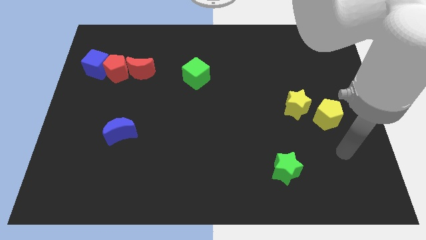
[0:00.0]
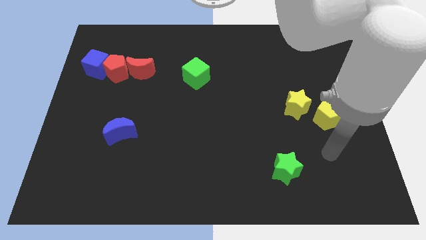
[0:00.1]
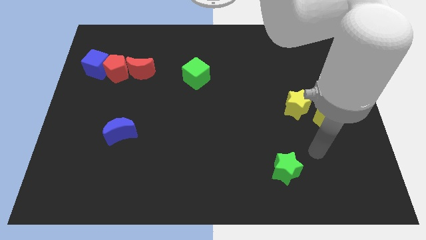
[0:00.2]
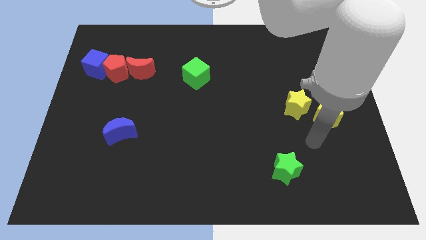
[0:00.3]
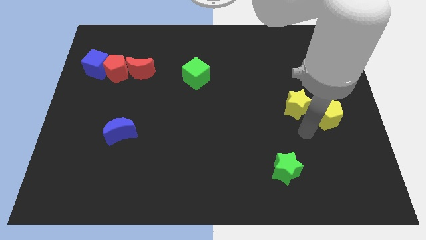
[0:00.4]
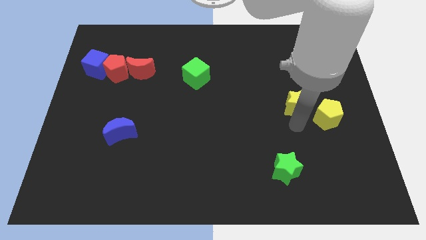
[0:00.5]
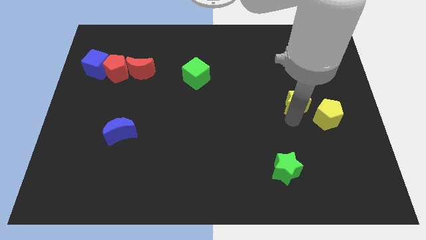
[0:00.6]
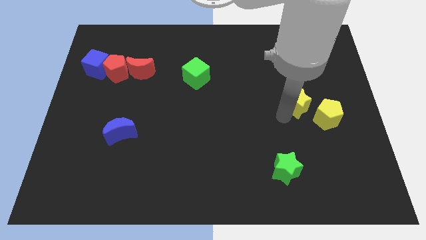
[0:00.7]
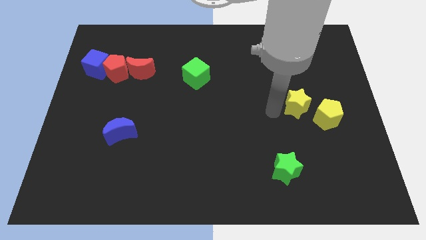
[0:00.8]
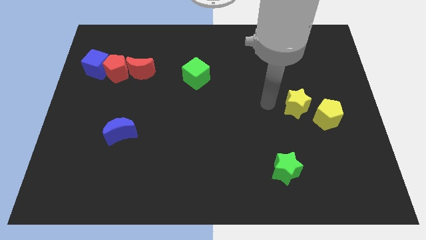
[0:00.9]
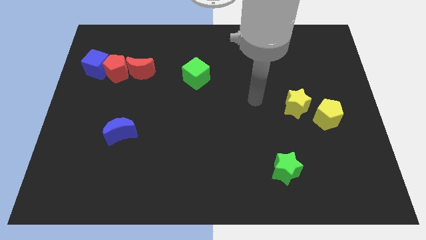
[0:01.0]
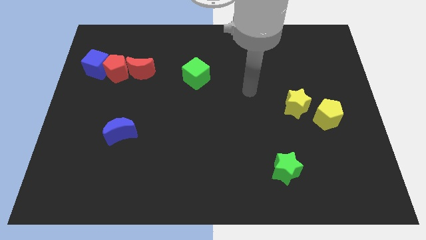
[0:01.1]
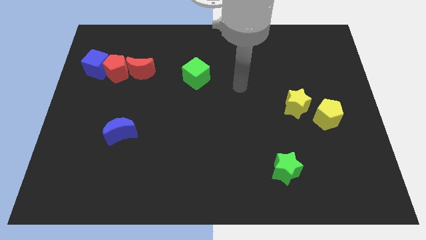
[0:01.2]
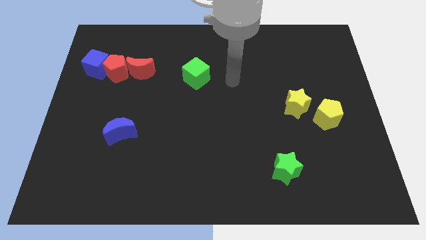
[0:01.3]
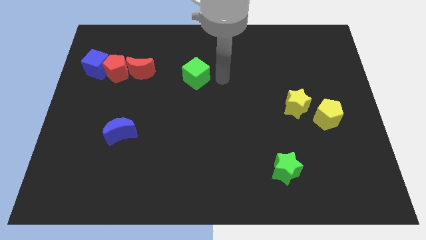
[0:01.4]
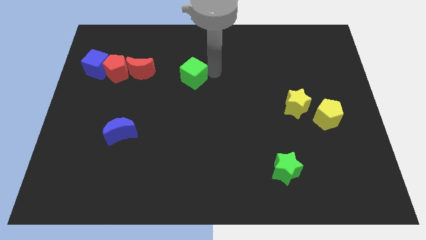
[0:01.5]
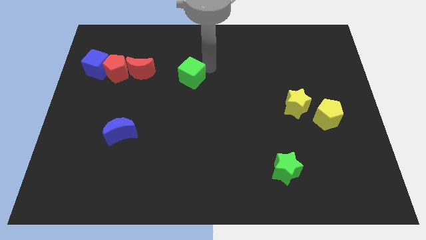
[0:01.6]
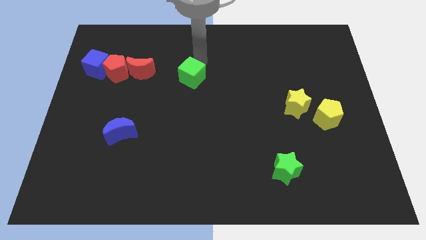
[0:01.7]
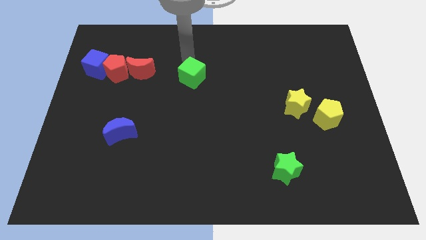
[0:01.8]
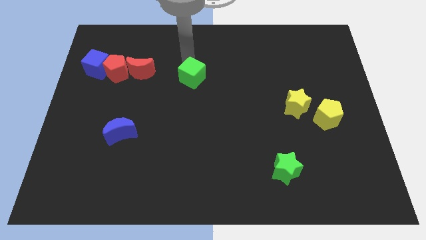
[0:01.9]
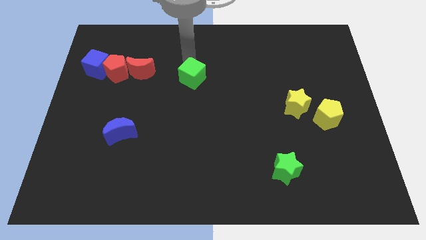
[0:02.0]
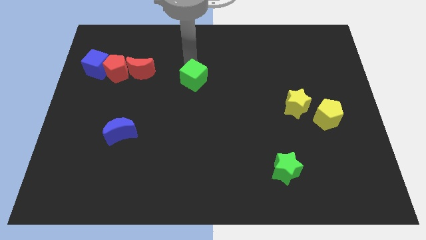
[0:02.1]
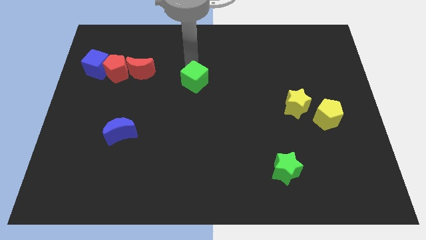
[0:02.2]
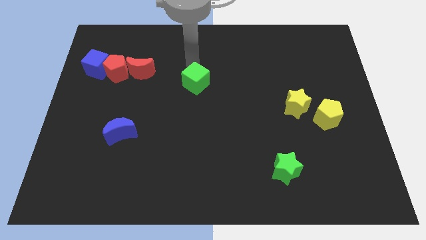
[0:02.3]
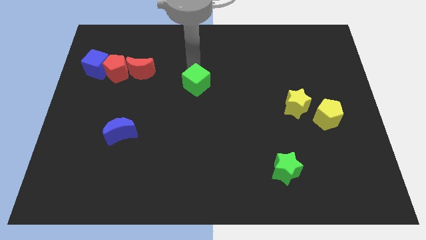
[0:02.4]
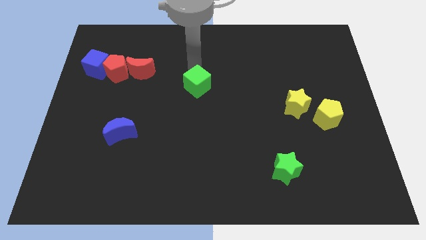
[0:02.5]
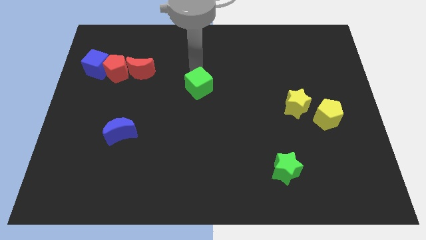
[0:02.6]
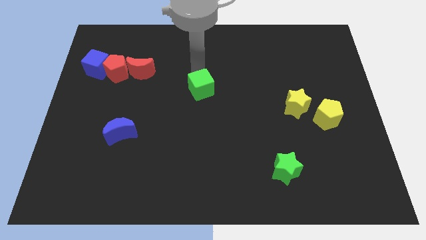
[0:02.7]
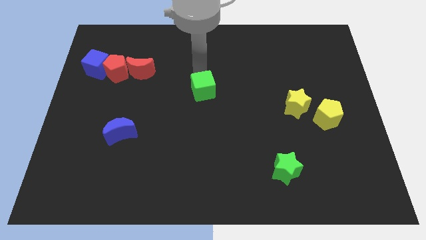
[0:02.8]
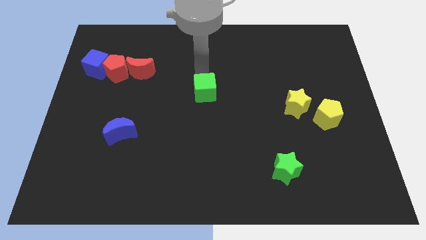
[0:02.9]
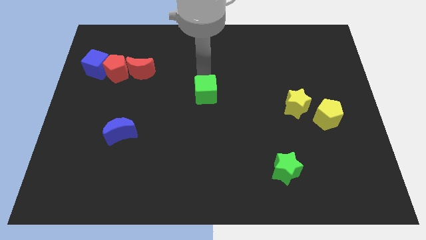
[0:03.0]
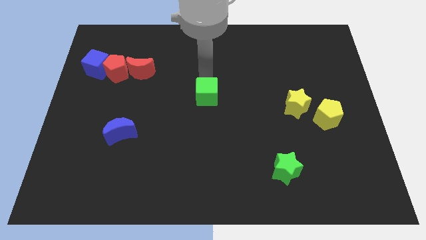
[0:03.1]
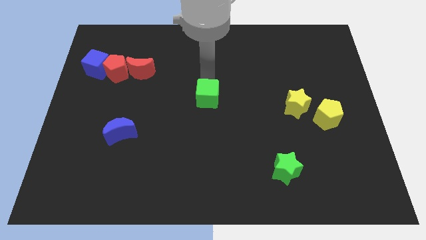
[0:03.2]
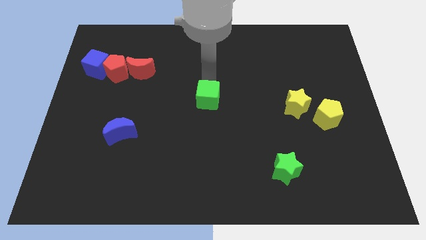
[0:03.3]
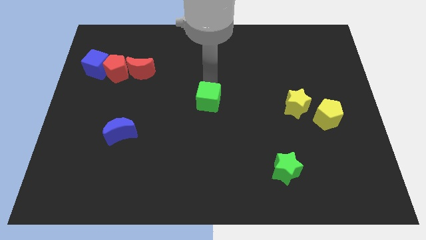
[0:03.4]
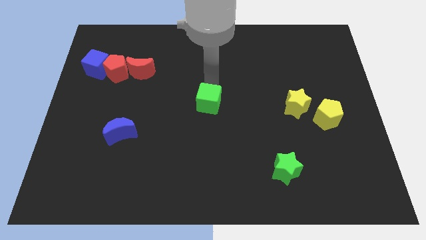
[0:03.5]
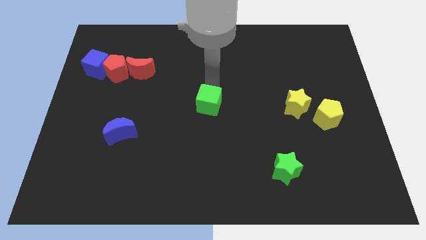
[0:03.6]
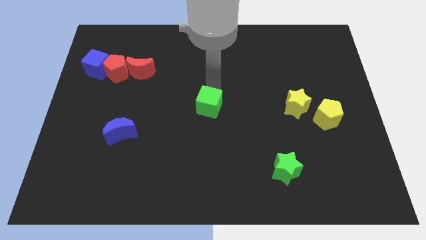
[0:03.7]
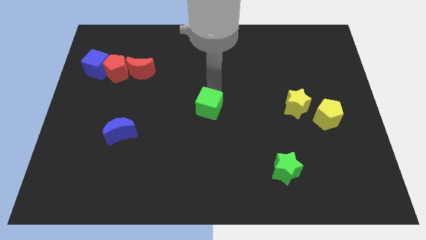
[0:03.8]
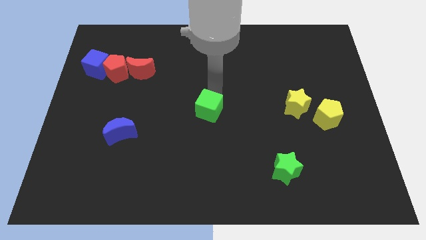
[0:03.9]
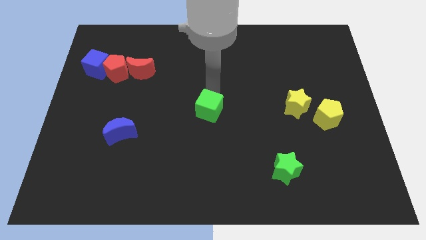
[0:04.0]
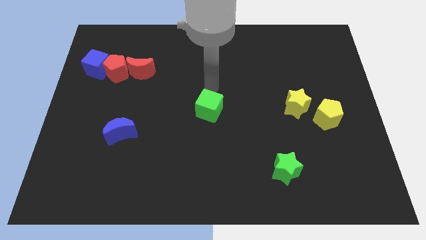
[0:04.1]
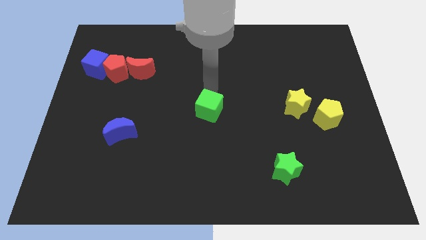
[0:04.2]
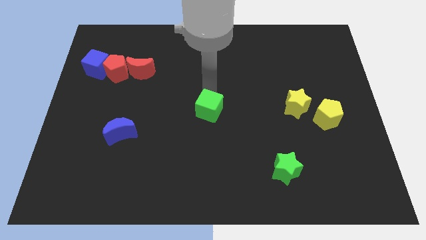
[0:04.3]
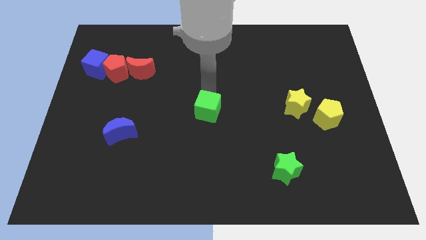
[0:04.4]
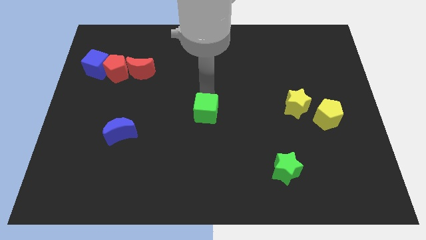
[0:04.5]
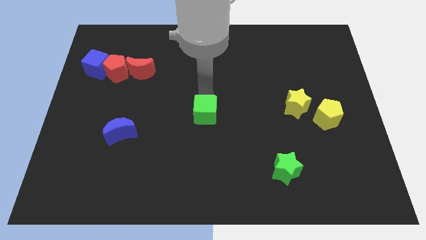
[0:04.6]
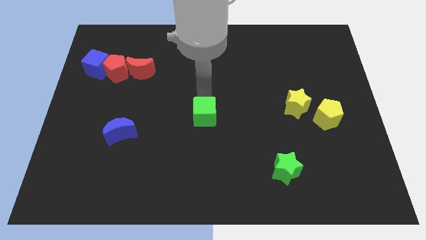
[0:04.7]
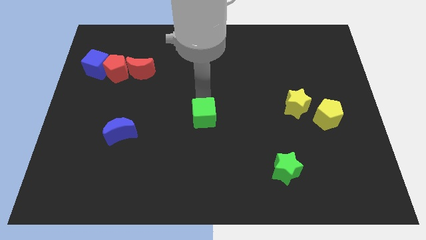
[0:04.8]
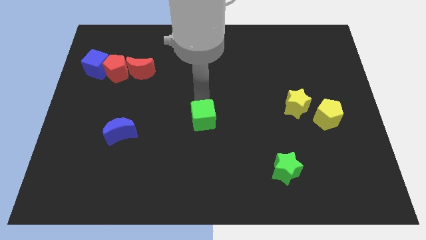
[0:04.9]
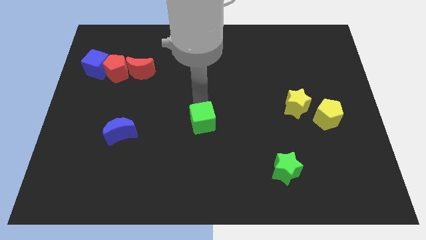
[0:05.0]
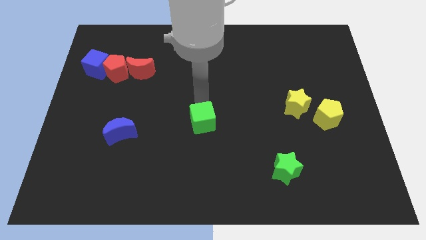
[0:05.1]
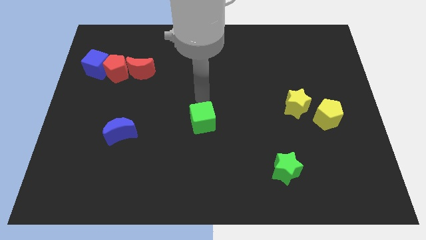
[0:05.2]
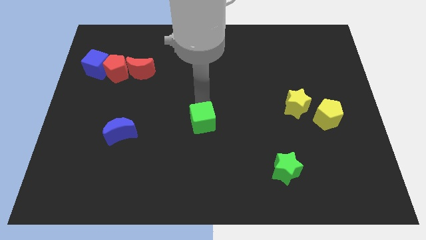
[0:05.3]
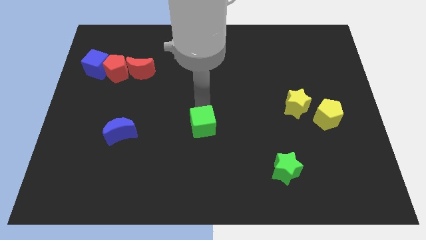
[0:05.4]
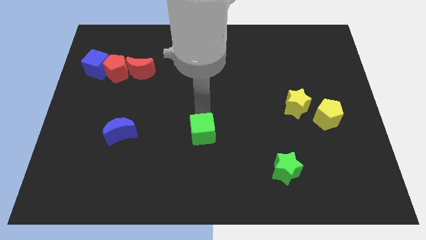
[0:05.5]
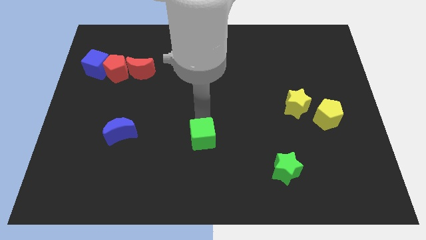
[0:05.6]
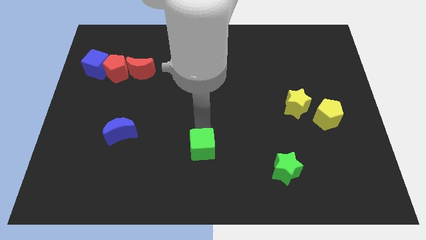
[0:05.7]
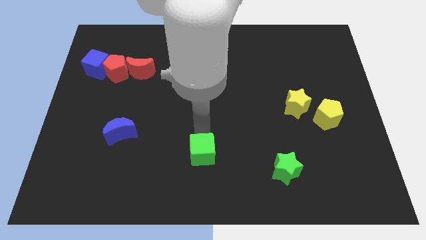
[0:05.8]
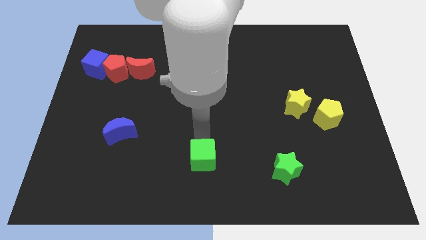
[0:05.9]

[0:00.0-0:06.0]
push the green cube to the bottom side

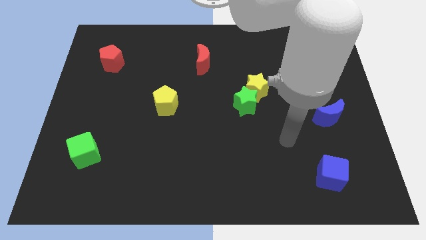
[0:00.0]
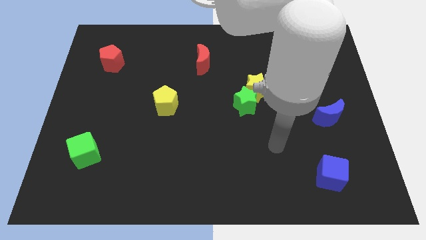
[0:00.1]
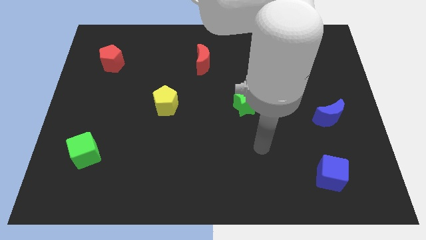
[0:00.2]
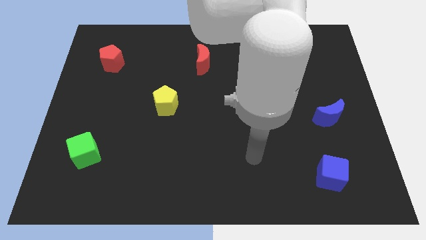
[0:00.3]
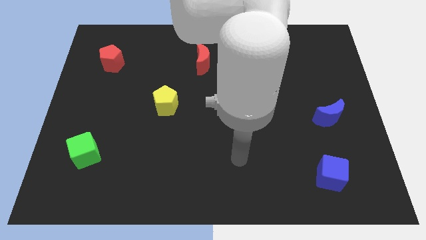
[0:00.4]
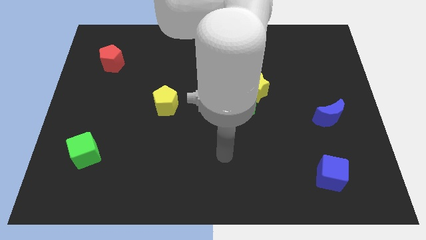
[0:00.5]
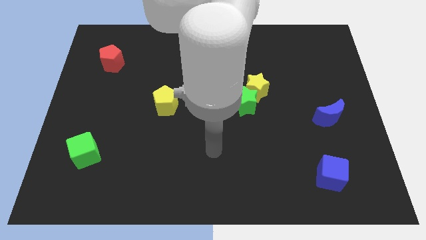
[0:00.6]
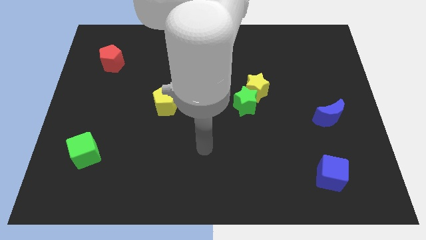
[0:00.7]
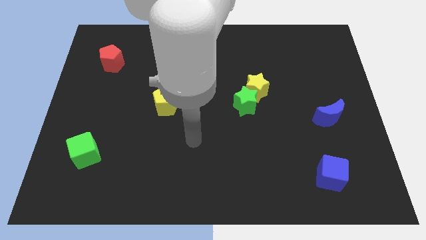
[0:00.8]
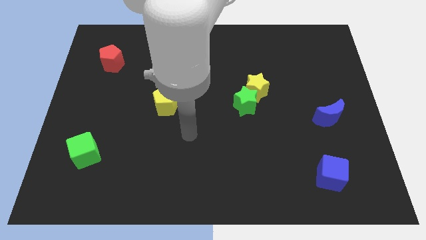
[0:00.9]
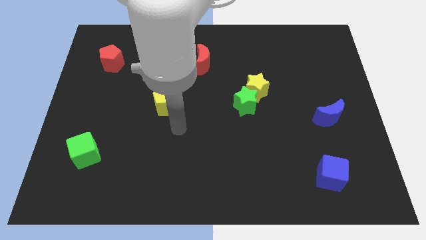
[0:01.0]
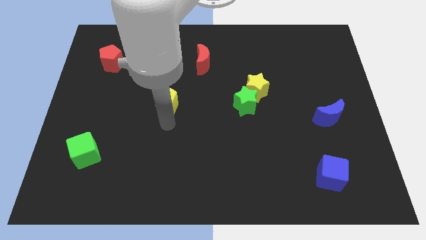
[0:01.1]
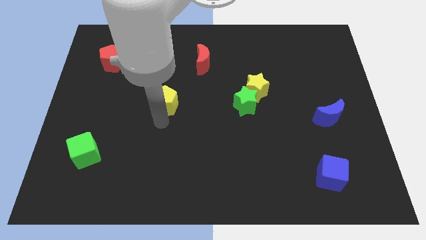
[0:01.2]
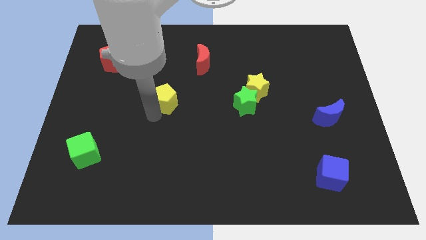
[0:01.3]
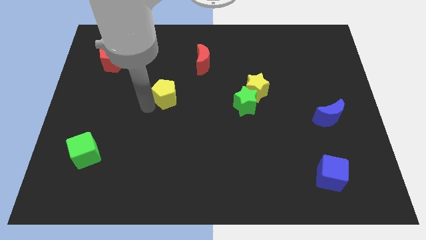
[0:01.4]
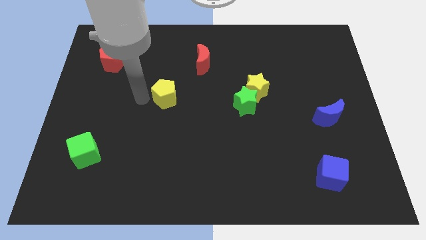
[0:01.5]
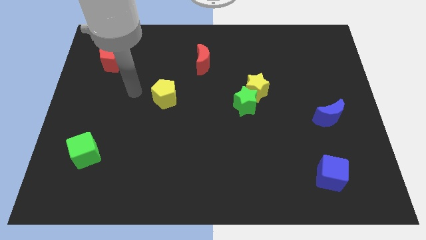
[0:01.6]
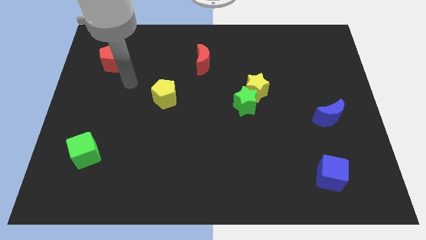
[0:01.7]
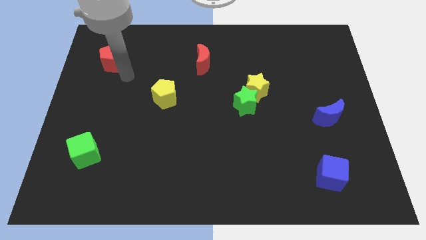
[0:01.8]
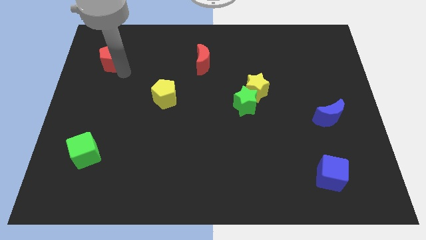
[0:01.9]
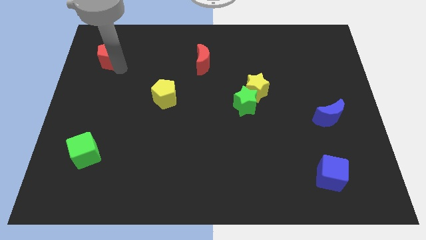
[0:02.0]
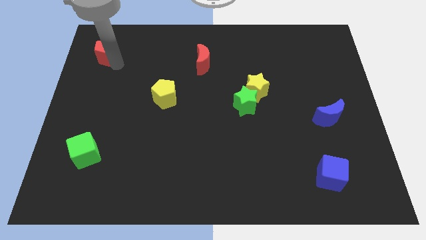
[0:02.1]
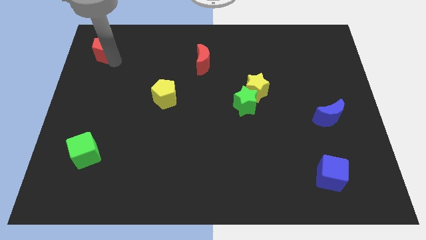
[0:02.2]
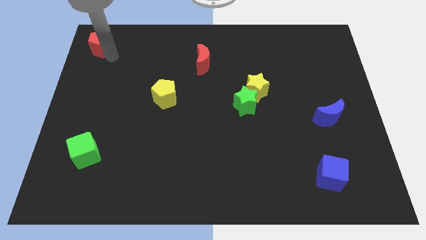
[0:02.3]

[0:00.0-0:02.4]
slide the red pentagon to the top left corner
